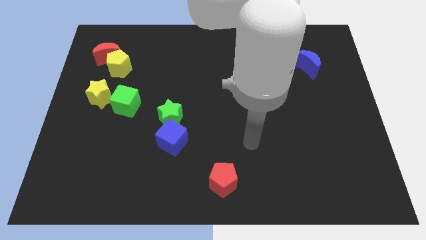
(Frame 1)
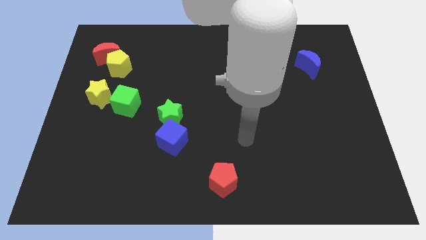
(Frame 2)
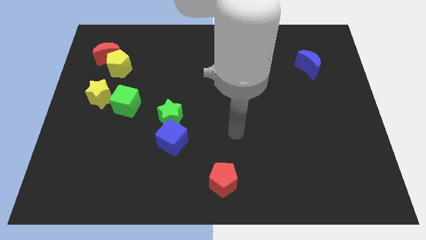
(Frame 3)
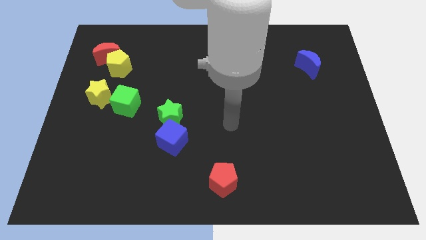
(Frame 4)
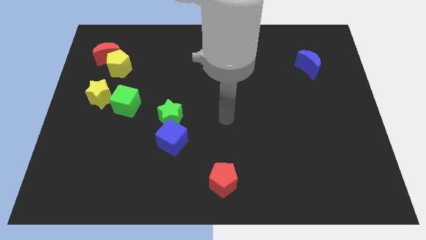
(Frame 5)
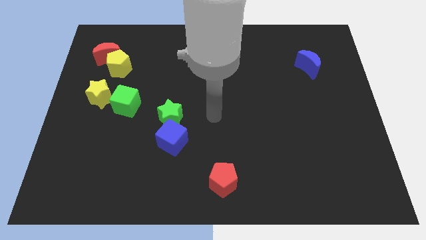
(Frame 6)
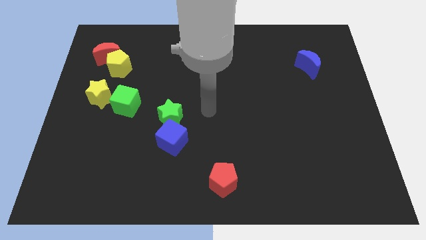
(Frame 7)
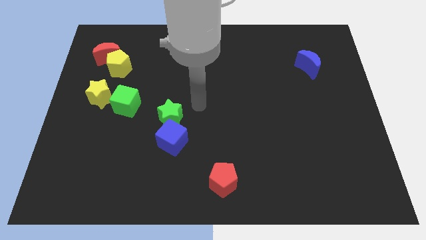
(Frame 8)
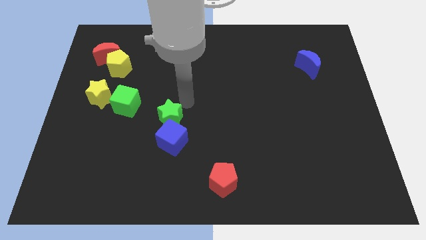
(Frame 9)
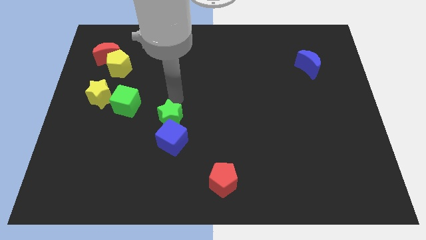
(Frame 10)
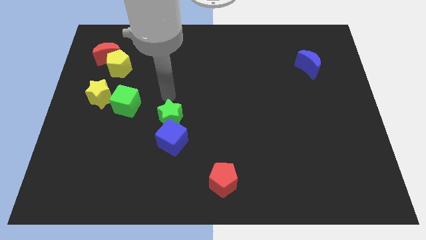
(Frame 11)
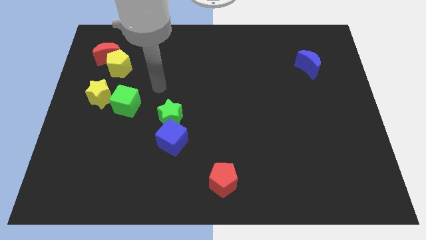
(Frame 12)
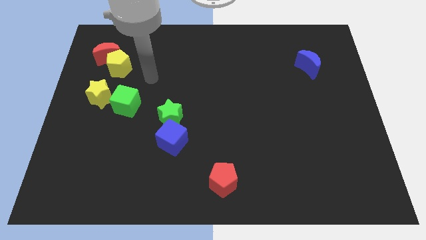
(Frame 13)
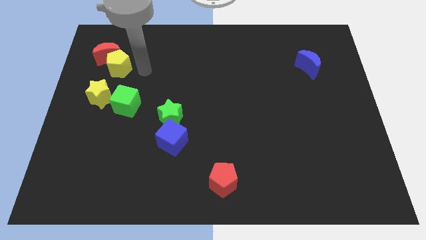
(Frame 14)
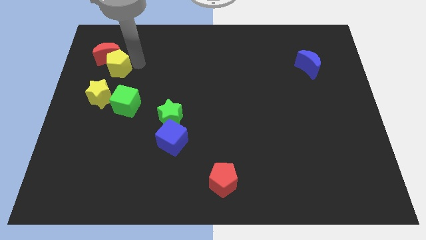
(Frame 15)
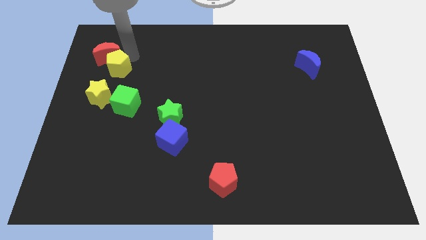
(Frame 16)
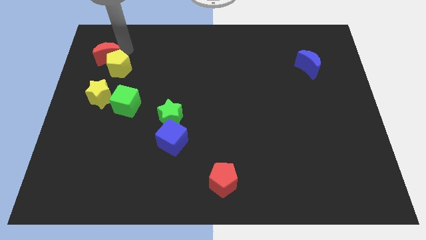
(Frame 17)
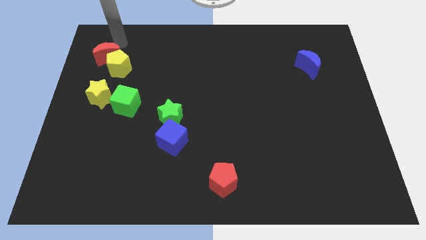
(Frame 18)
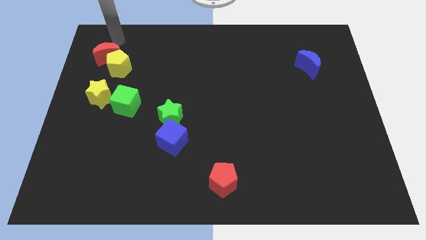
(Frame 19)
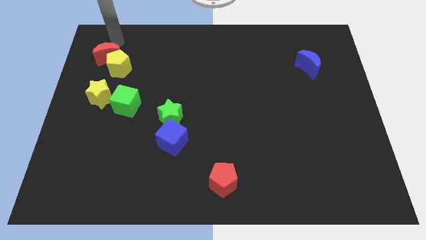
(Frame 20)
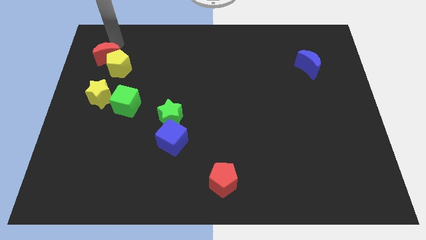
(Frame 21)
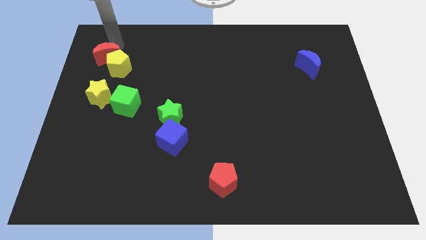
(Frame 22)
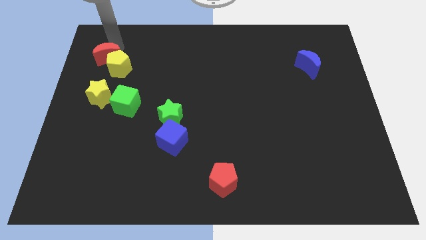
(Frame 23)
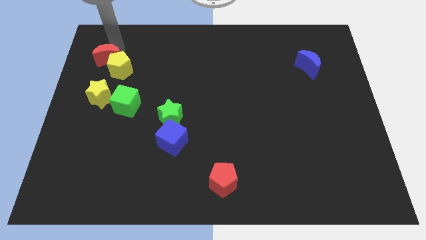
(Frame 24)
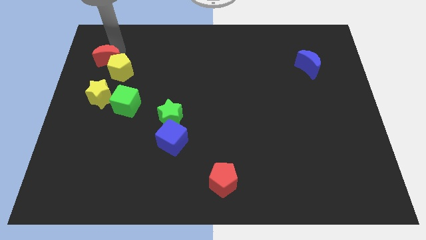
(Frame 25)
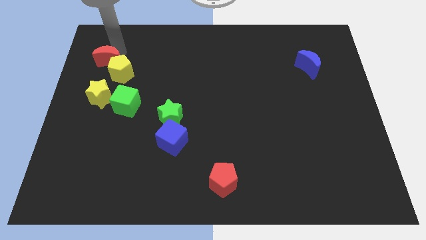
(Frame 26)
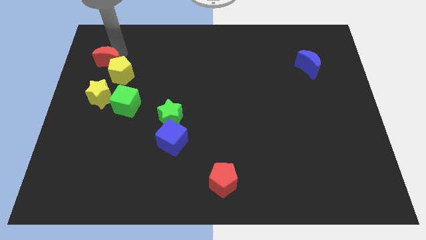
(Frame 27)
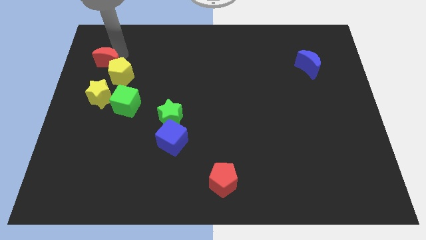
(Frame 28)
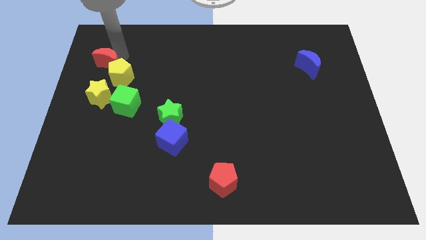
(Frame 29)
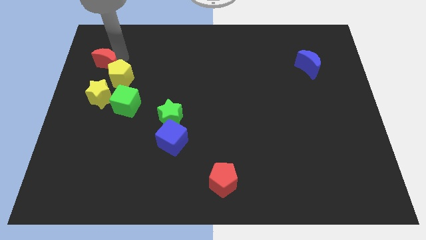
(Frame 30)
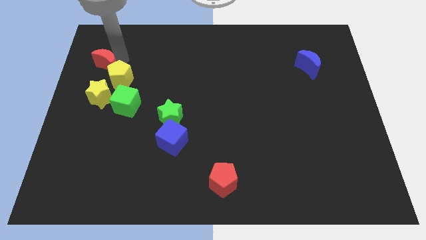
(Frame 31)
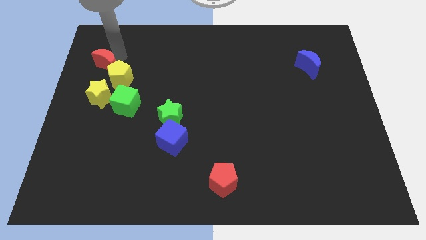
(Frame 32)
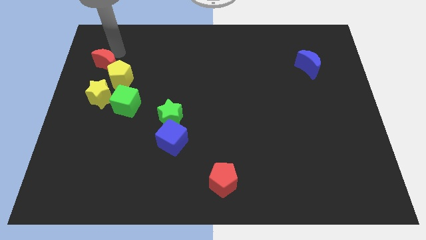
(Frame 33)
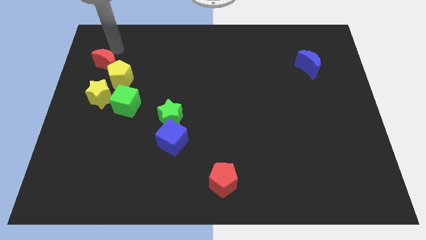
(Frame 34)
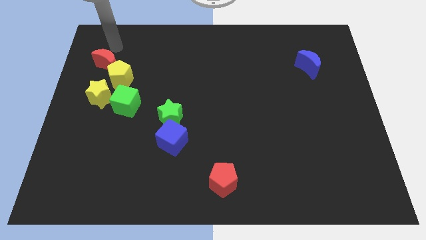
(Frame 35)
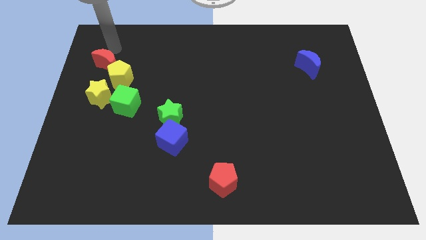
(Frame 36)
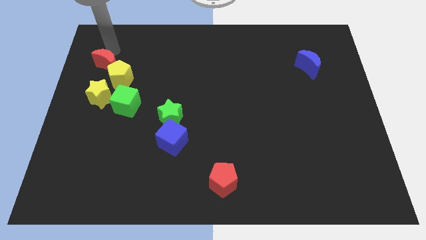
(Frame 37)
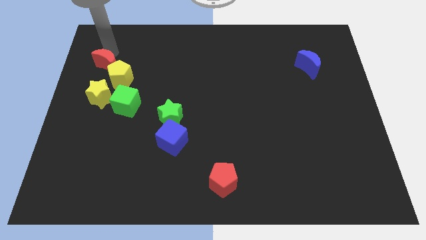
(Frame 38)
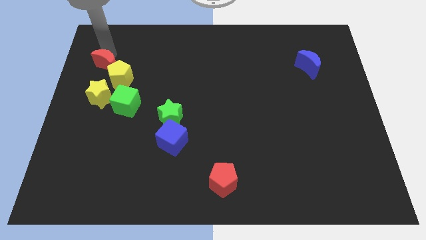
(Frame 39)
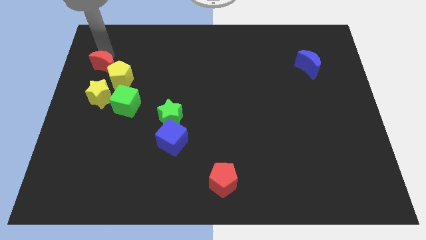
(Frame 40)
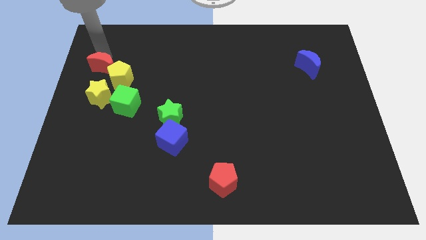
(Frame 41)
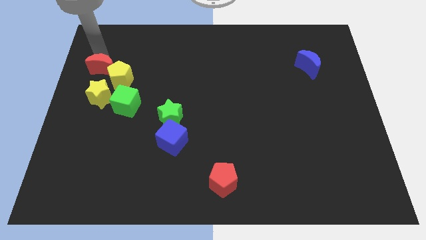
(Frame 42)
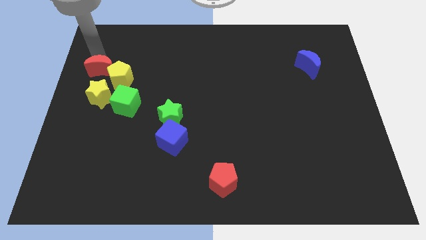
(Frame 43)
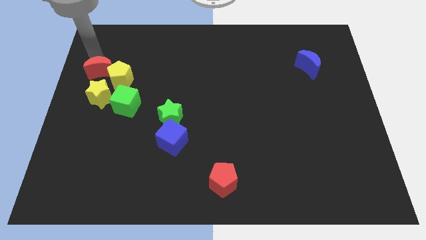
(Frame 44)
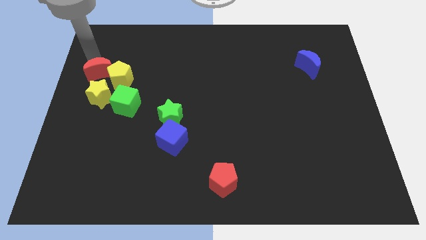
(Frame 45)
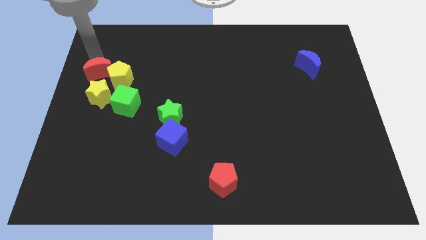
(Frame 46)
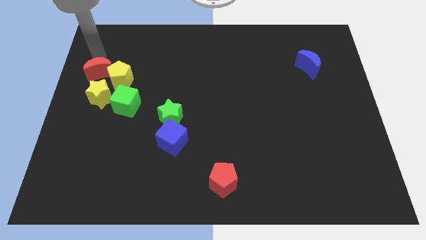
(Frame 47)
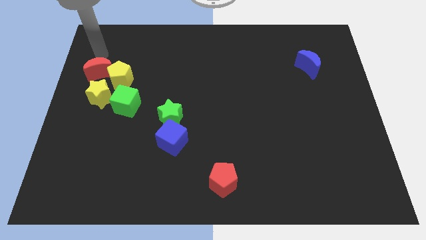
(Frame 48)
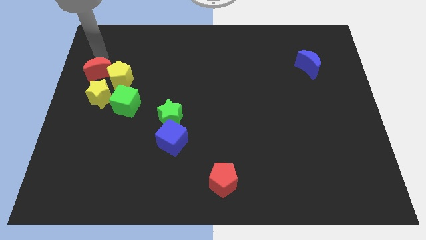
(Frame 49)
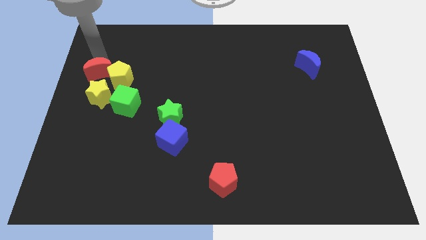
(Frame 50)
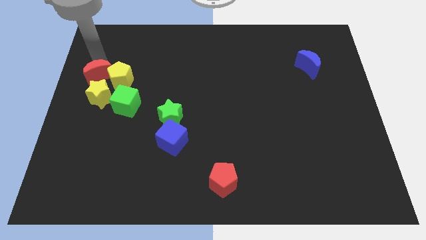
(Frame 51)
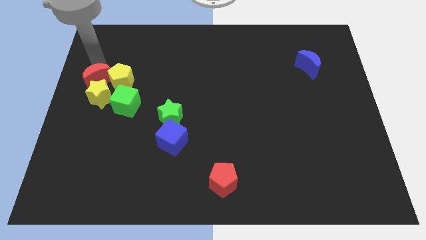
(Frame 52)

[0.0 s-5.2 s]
put the red moon towards the yellow star

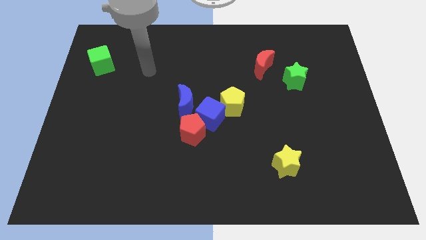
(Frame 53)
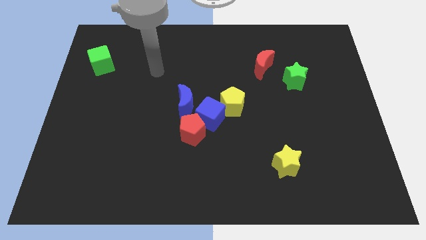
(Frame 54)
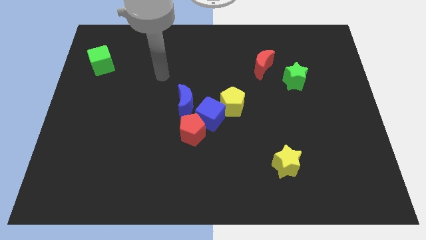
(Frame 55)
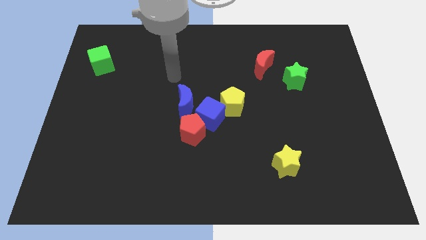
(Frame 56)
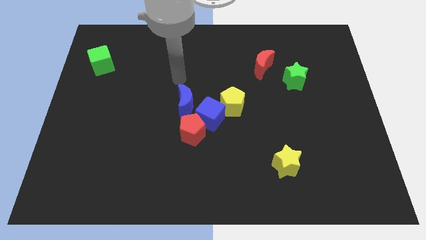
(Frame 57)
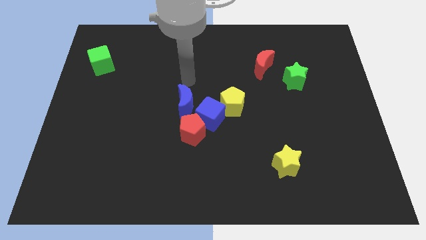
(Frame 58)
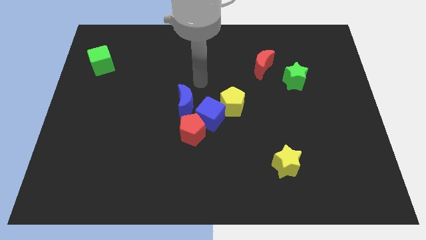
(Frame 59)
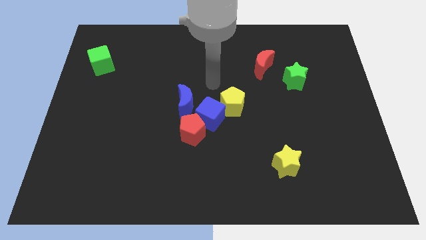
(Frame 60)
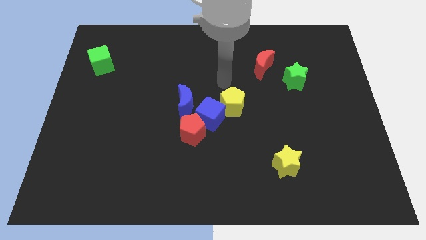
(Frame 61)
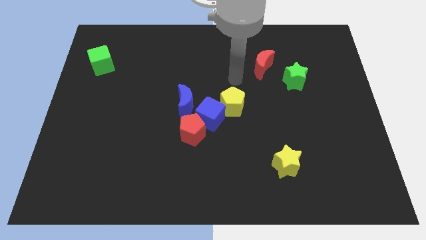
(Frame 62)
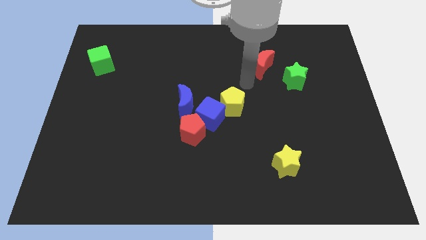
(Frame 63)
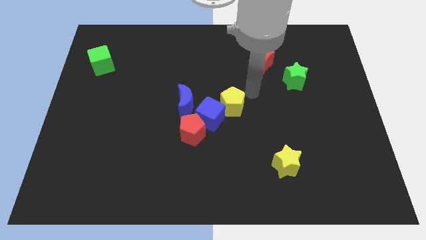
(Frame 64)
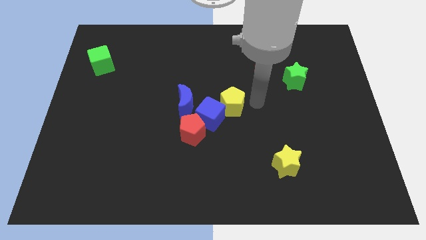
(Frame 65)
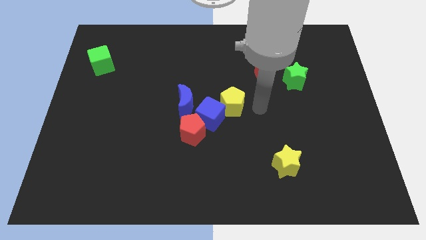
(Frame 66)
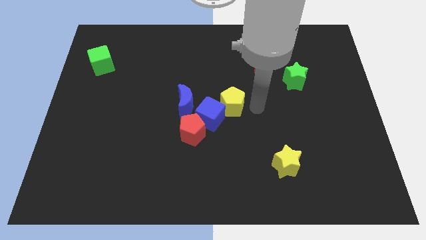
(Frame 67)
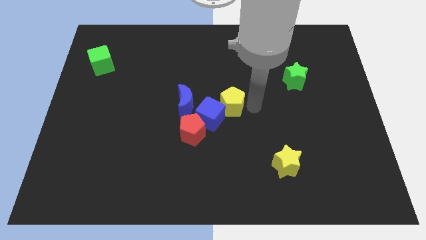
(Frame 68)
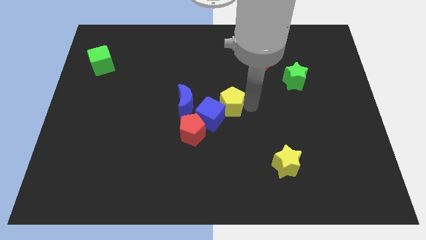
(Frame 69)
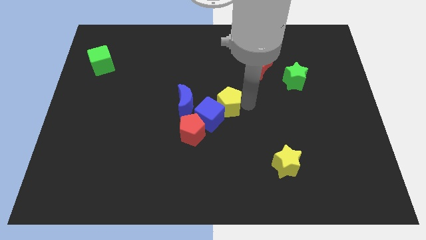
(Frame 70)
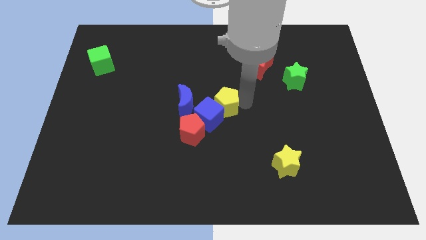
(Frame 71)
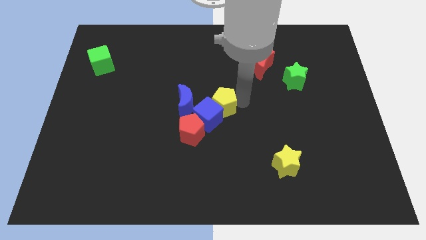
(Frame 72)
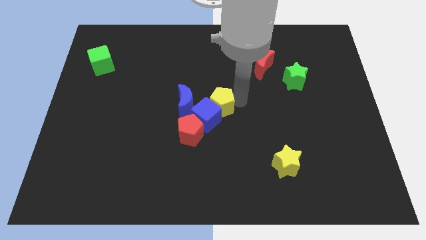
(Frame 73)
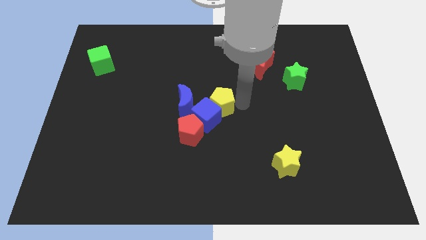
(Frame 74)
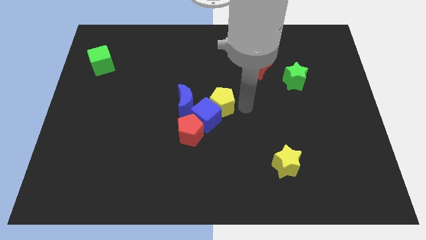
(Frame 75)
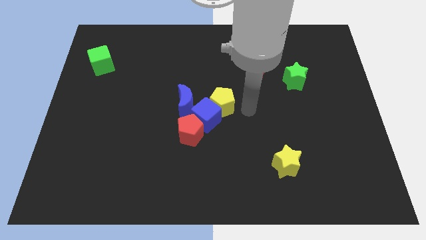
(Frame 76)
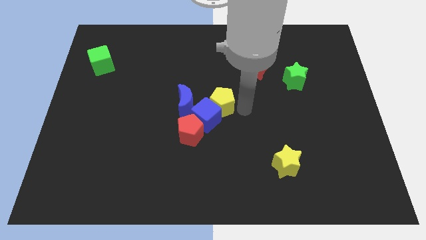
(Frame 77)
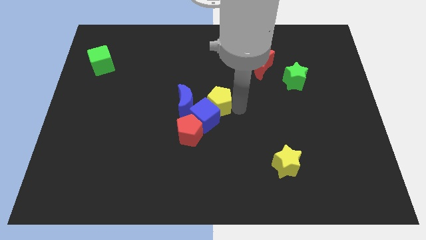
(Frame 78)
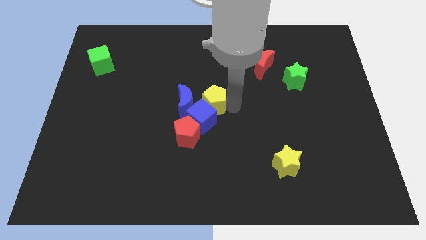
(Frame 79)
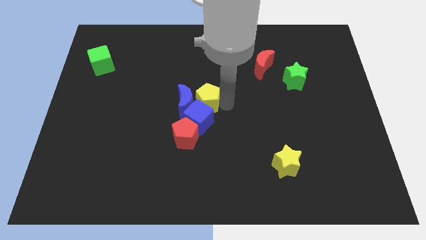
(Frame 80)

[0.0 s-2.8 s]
move the yellow pentagon to the blue moon
